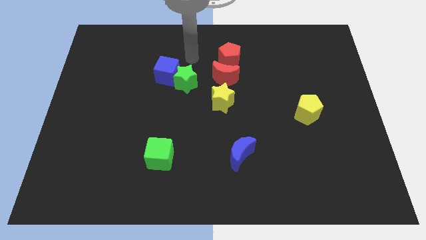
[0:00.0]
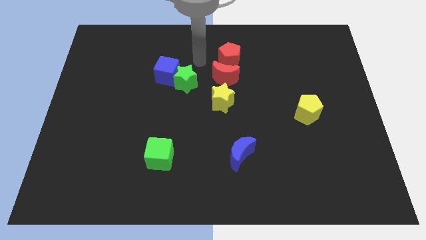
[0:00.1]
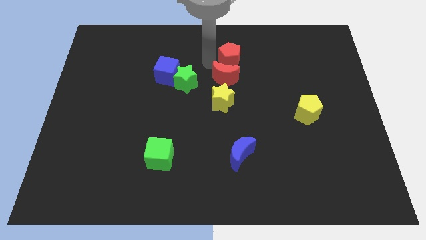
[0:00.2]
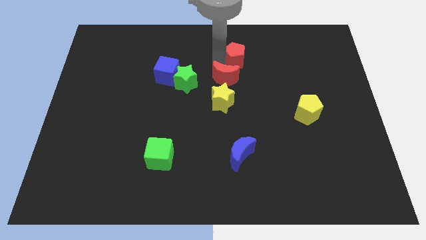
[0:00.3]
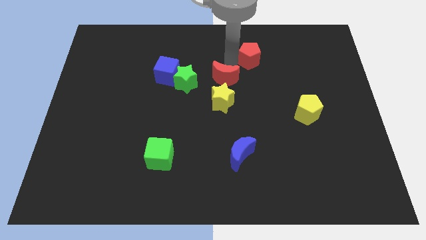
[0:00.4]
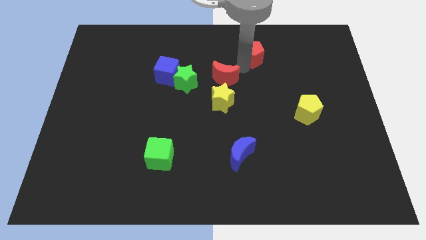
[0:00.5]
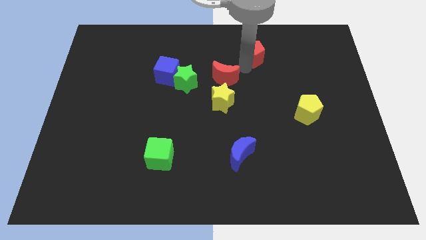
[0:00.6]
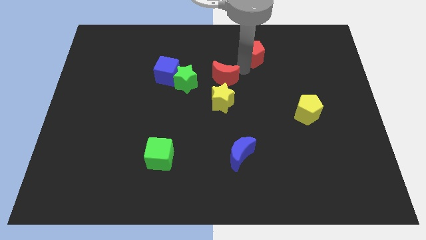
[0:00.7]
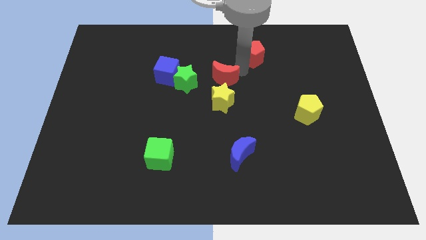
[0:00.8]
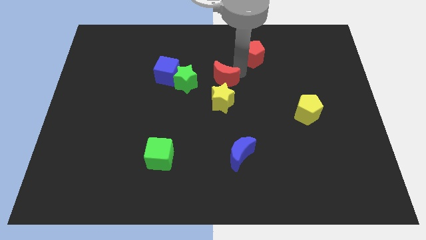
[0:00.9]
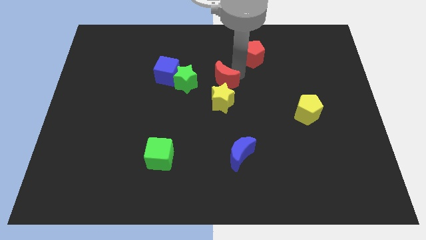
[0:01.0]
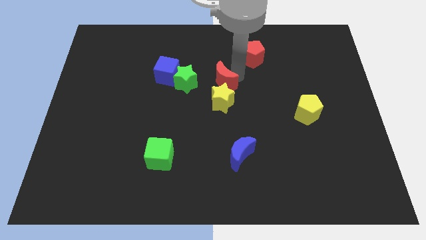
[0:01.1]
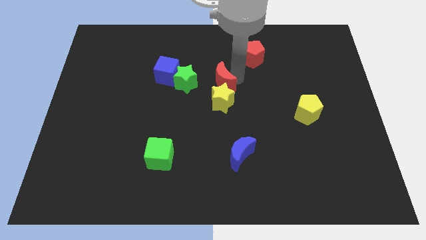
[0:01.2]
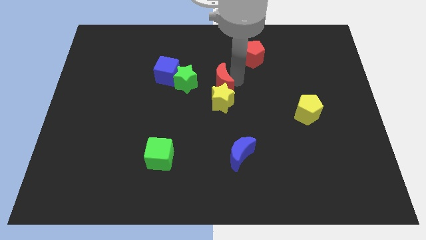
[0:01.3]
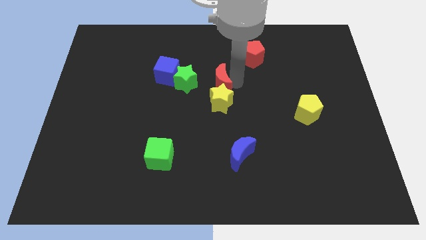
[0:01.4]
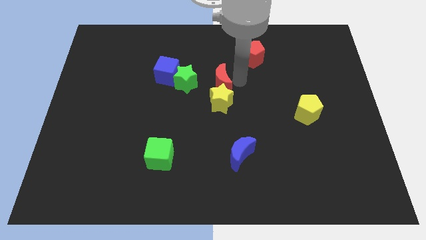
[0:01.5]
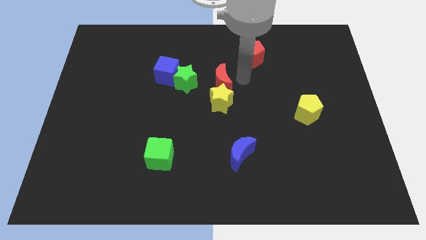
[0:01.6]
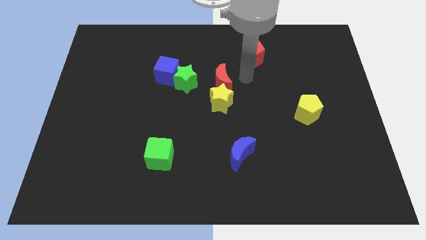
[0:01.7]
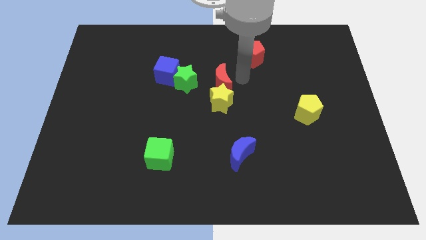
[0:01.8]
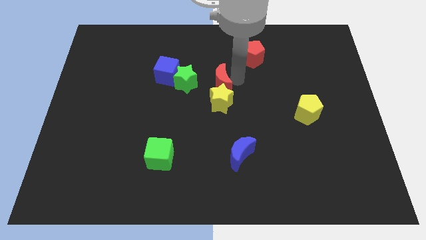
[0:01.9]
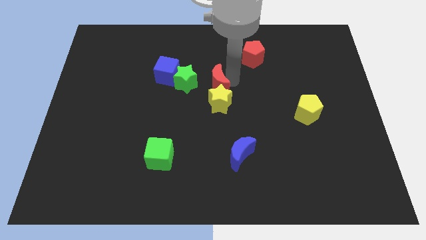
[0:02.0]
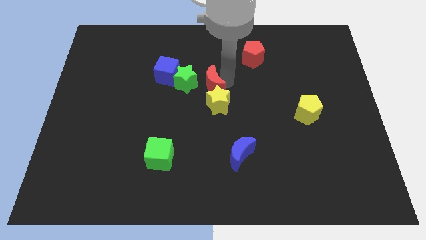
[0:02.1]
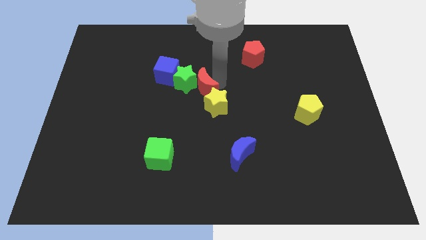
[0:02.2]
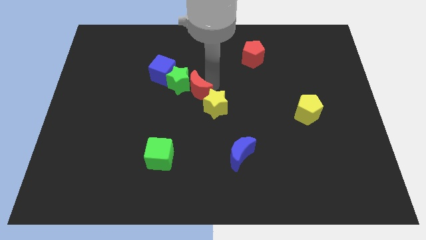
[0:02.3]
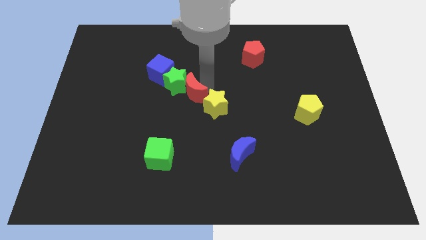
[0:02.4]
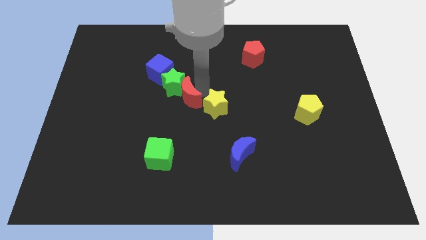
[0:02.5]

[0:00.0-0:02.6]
slightly slide the red moon to the left

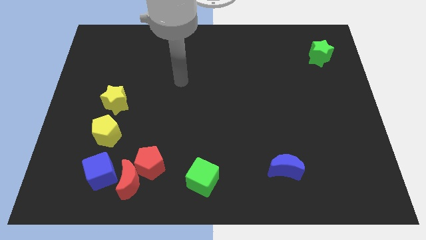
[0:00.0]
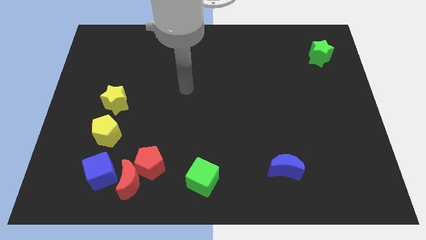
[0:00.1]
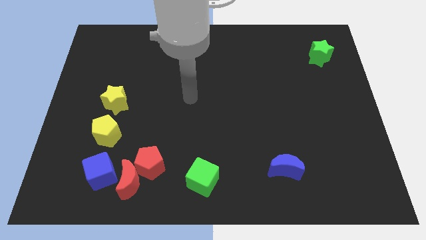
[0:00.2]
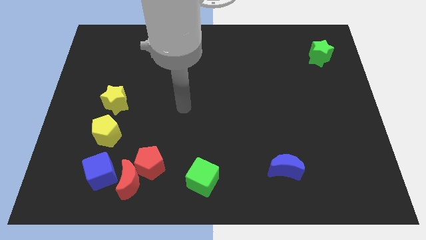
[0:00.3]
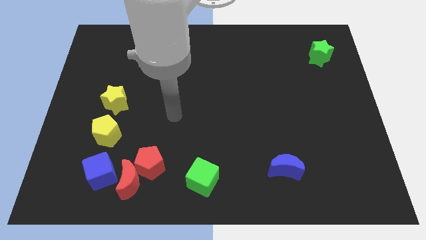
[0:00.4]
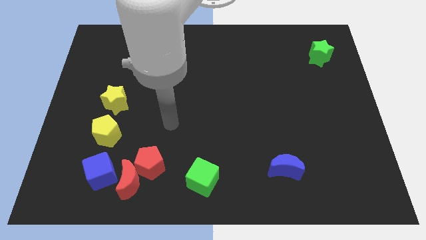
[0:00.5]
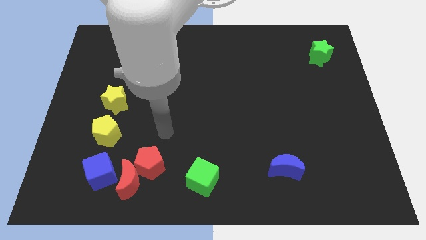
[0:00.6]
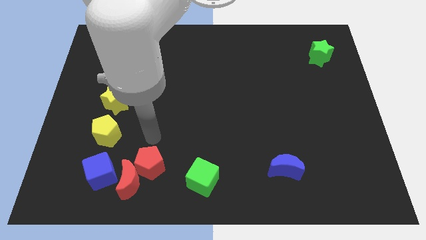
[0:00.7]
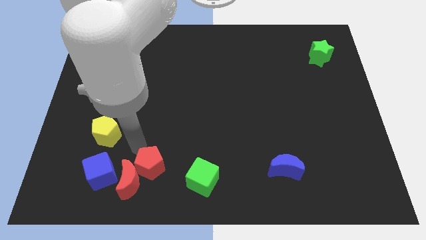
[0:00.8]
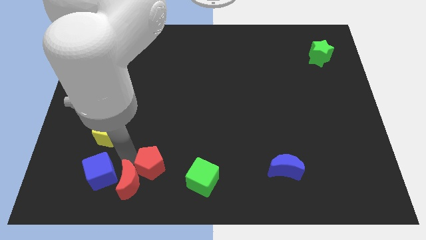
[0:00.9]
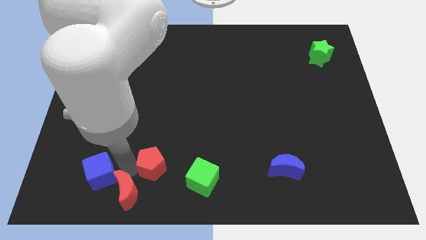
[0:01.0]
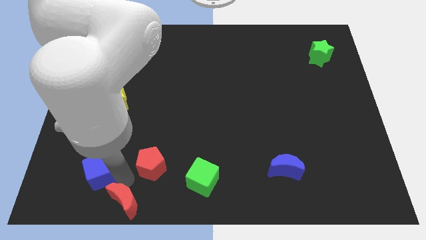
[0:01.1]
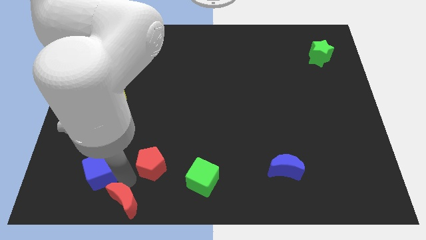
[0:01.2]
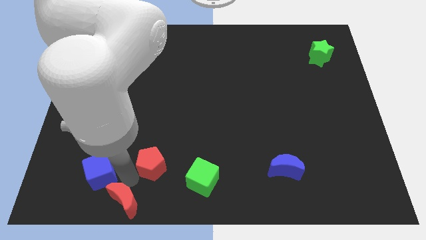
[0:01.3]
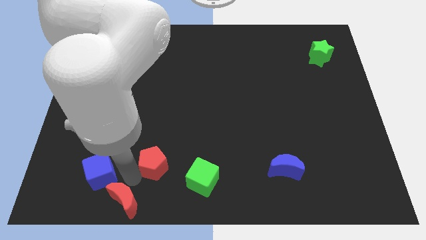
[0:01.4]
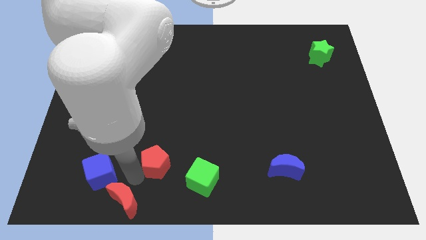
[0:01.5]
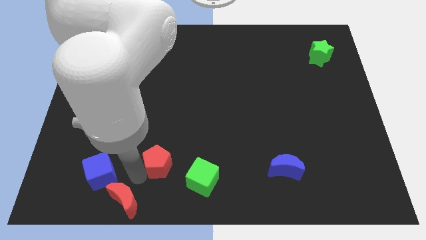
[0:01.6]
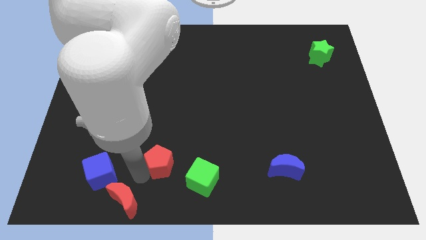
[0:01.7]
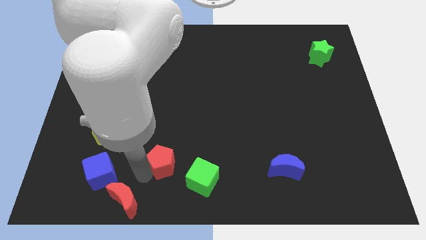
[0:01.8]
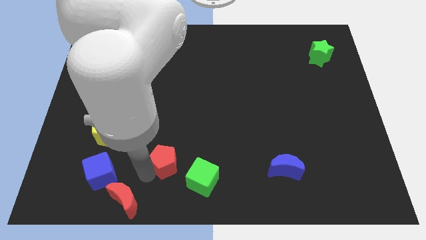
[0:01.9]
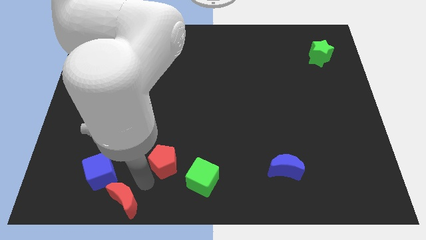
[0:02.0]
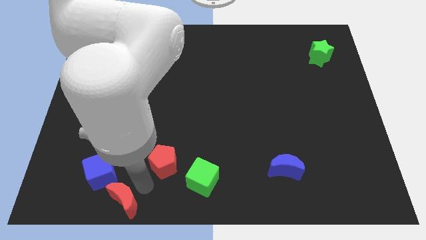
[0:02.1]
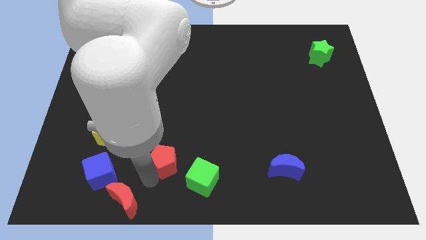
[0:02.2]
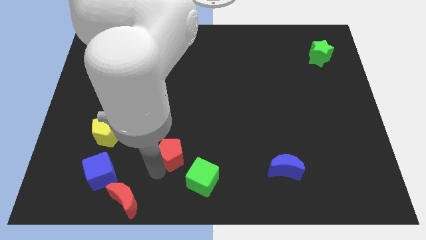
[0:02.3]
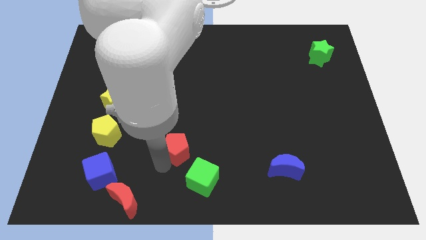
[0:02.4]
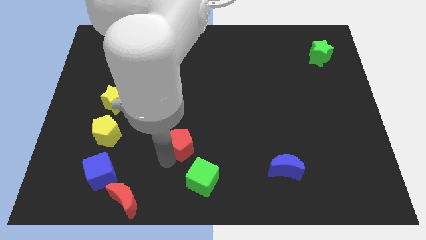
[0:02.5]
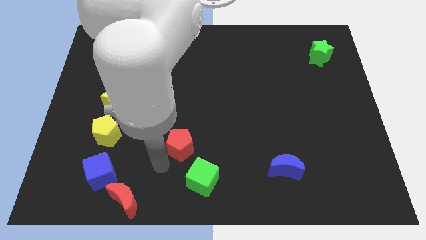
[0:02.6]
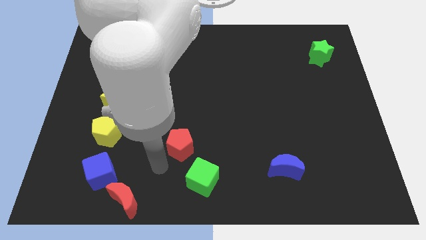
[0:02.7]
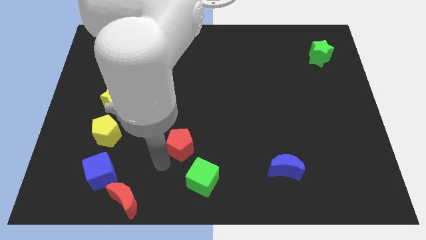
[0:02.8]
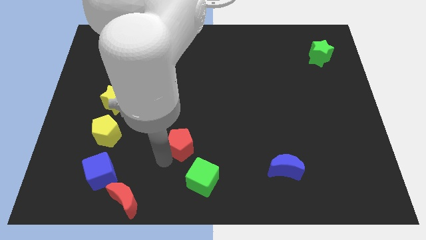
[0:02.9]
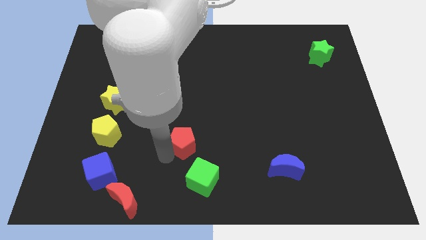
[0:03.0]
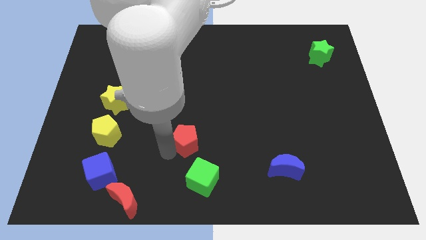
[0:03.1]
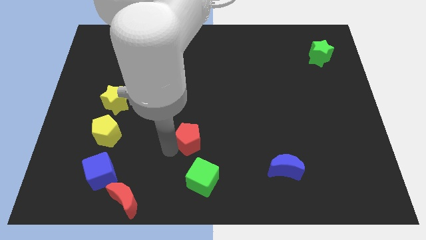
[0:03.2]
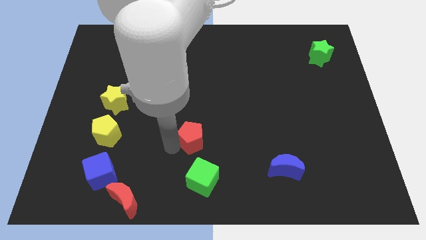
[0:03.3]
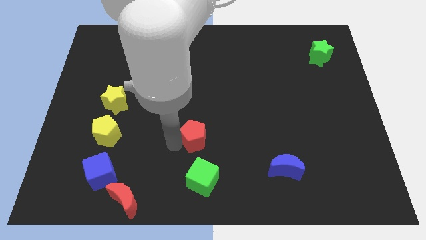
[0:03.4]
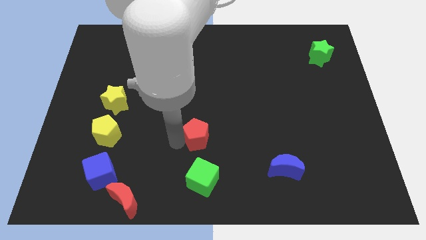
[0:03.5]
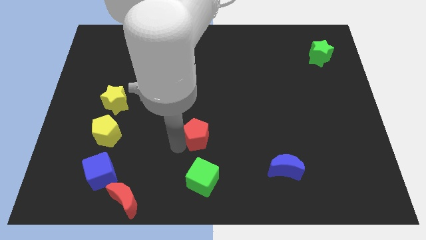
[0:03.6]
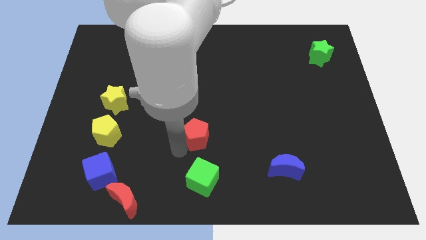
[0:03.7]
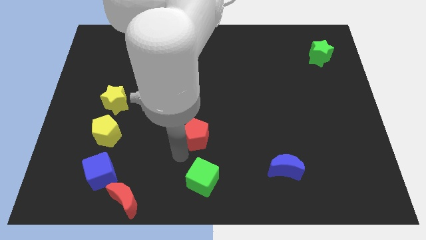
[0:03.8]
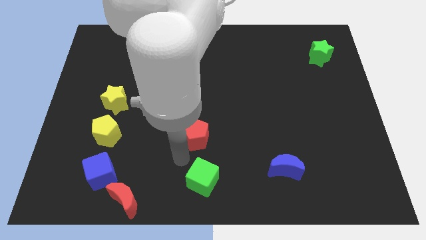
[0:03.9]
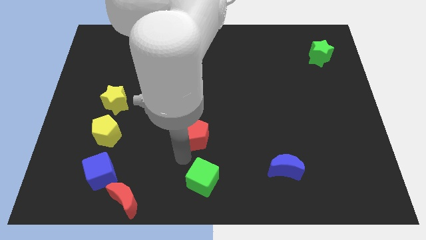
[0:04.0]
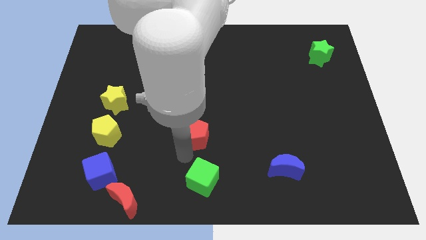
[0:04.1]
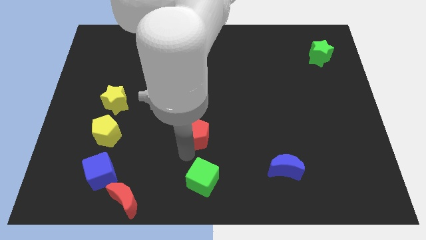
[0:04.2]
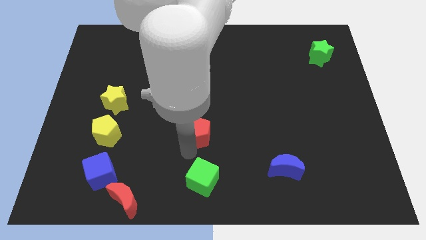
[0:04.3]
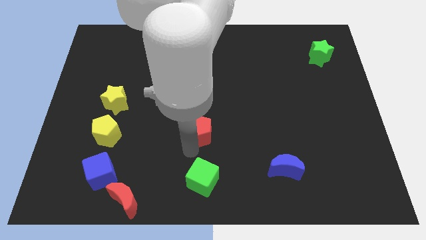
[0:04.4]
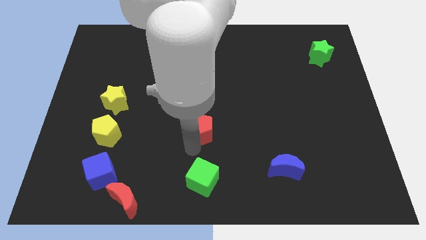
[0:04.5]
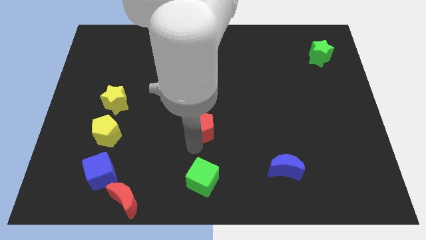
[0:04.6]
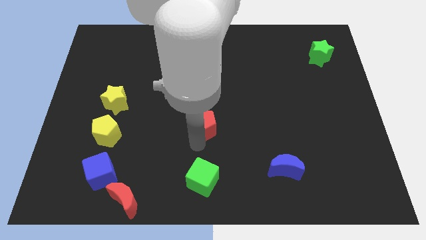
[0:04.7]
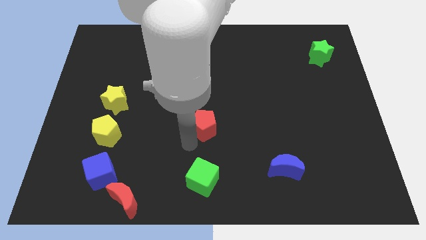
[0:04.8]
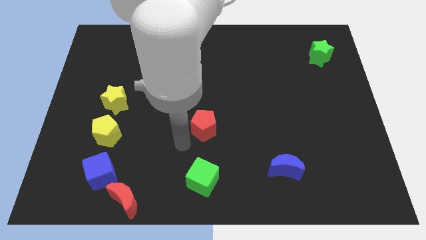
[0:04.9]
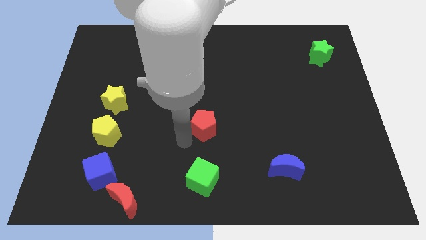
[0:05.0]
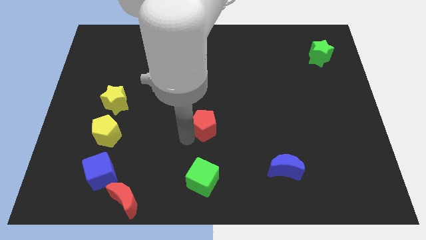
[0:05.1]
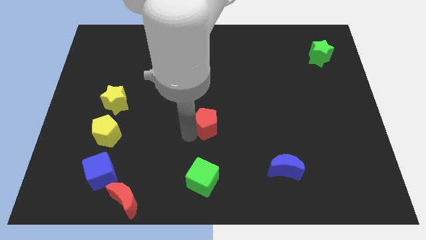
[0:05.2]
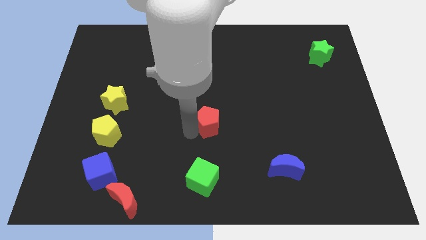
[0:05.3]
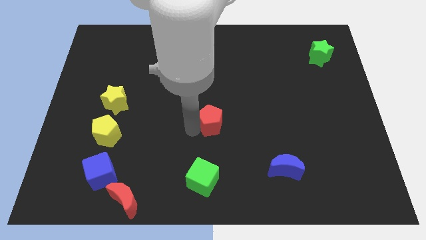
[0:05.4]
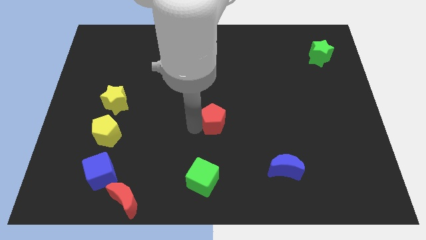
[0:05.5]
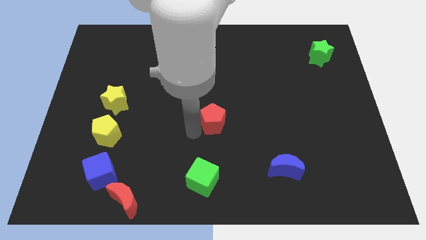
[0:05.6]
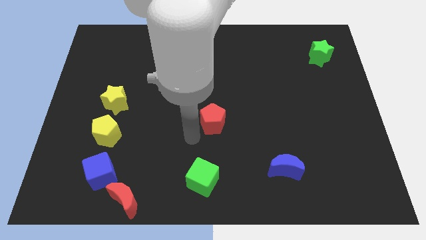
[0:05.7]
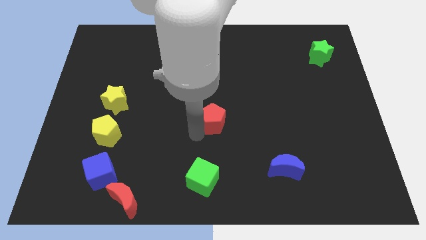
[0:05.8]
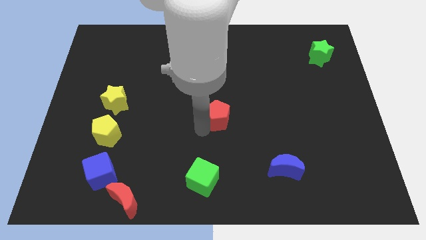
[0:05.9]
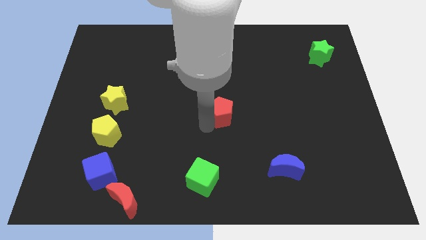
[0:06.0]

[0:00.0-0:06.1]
slide the red pentagon up and right
